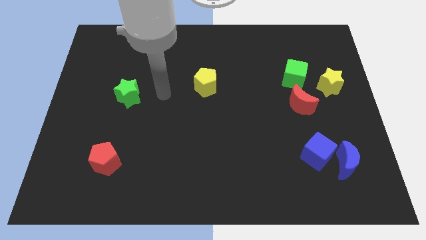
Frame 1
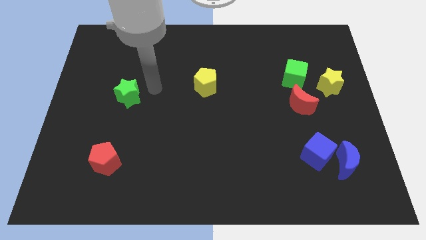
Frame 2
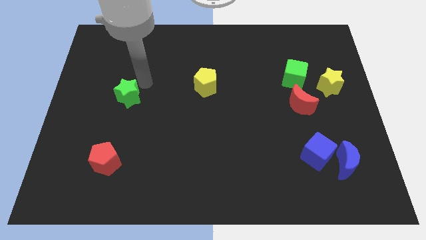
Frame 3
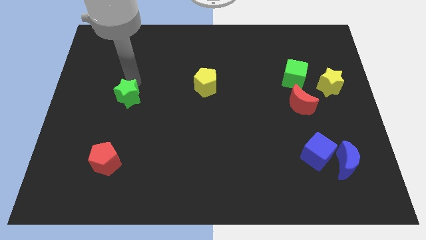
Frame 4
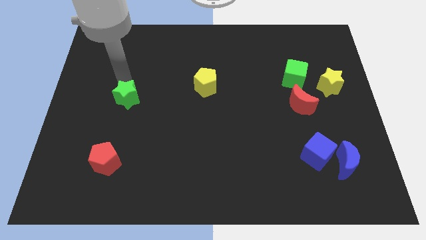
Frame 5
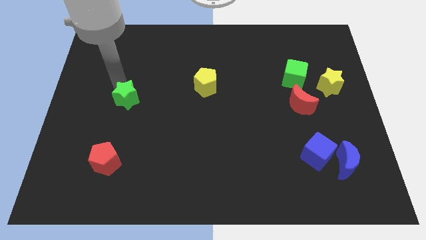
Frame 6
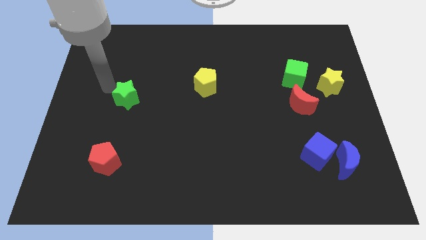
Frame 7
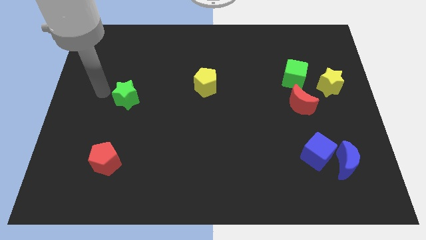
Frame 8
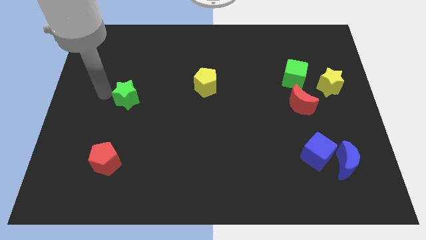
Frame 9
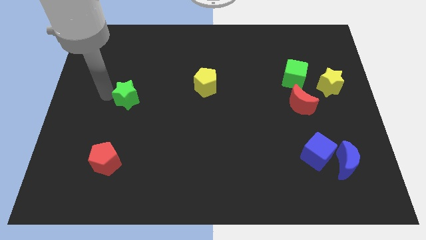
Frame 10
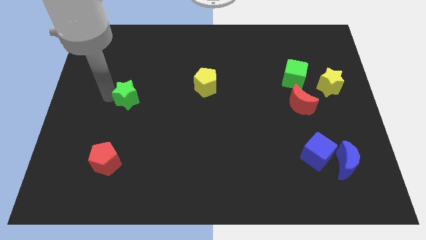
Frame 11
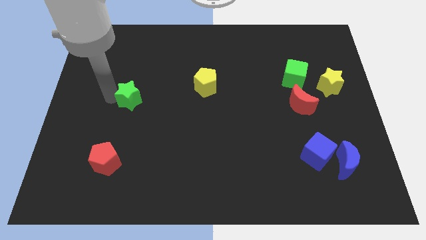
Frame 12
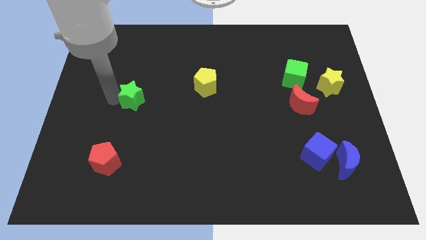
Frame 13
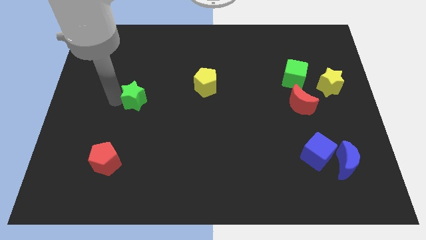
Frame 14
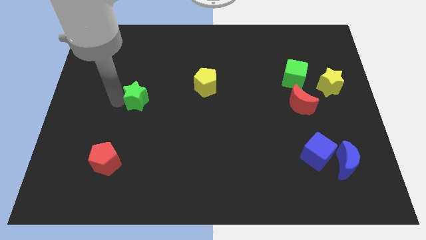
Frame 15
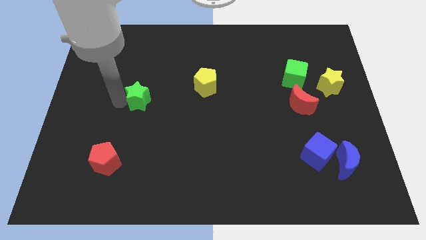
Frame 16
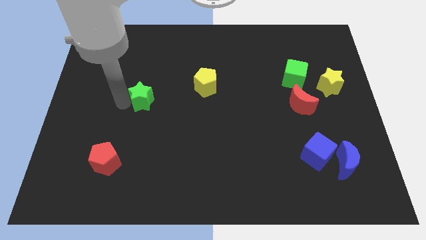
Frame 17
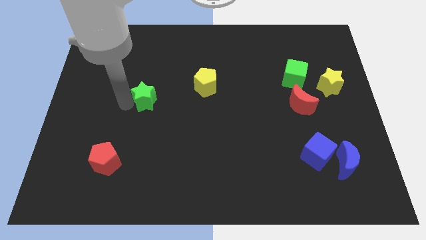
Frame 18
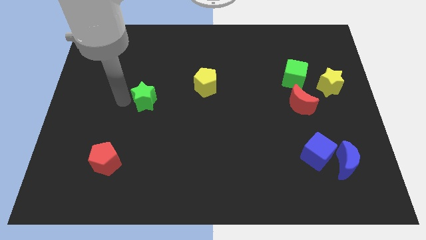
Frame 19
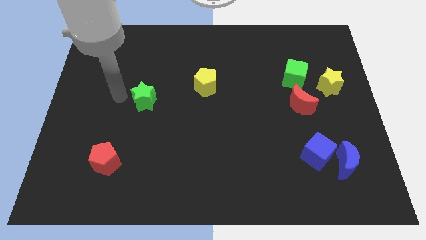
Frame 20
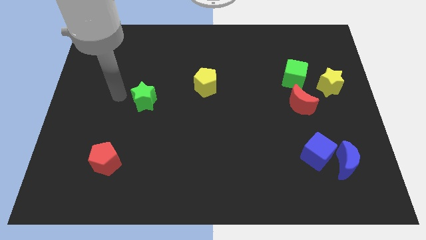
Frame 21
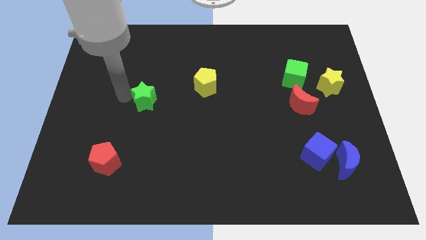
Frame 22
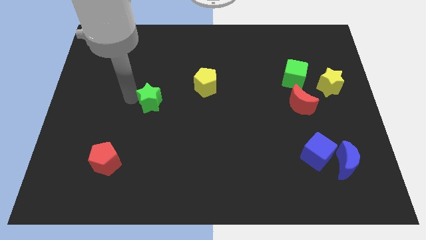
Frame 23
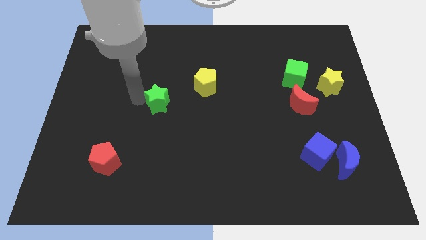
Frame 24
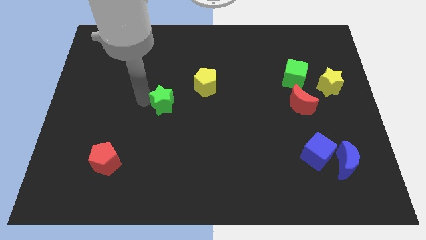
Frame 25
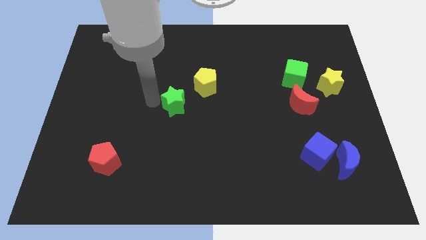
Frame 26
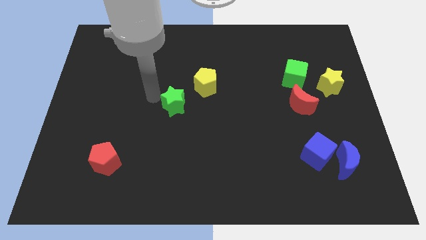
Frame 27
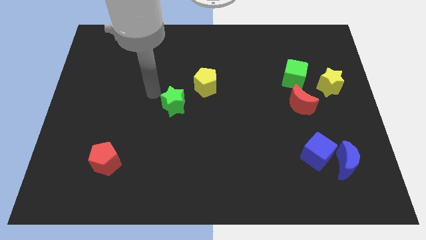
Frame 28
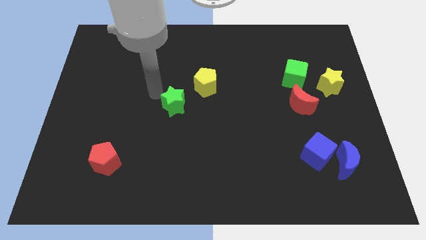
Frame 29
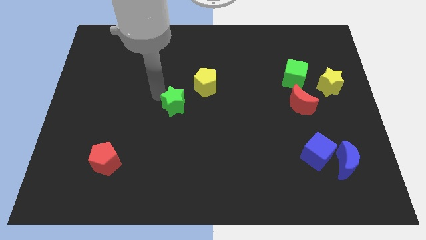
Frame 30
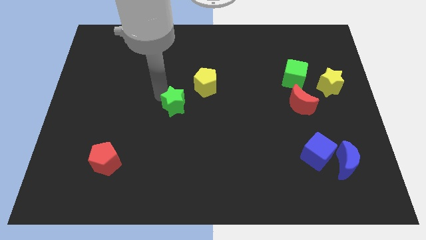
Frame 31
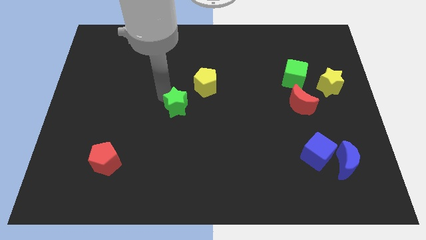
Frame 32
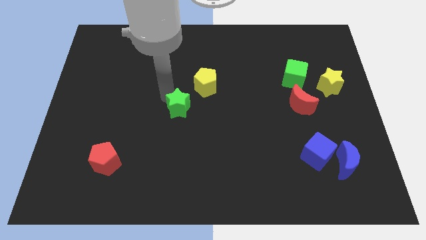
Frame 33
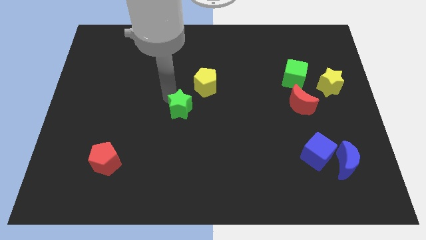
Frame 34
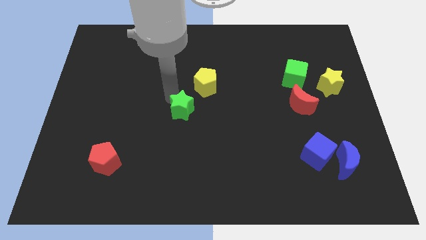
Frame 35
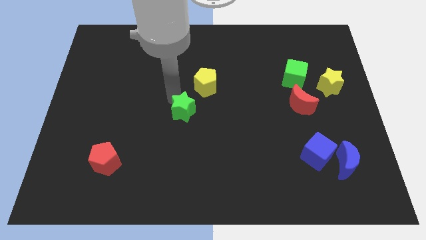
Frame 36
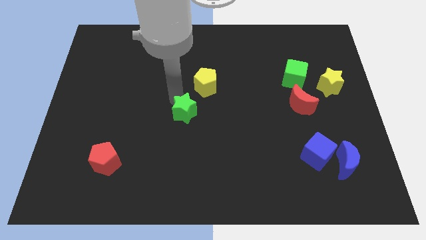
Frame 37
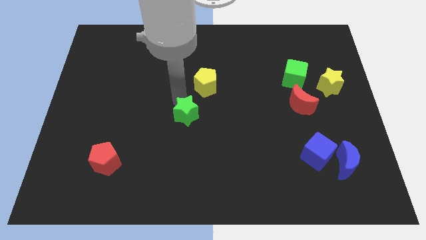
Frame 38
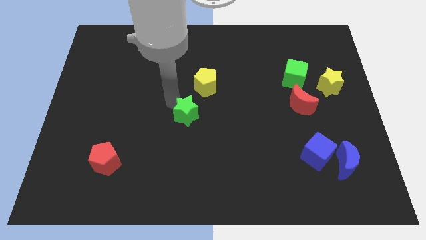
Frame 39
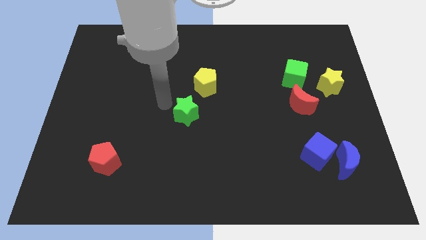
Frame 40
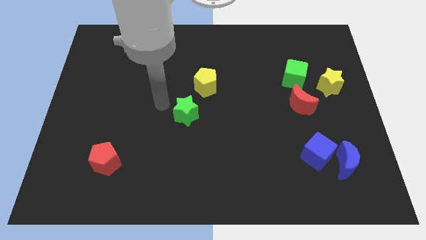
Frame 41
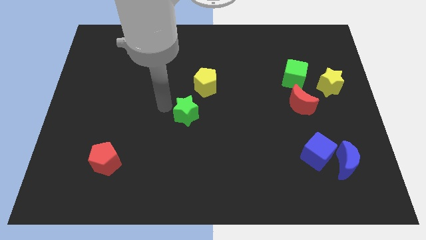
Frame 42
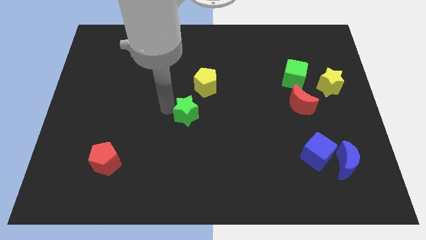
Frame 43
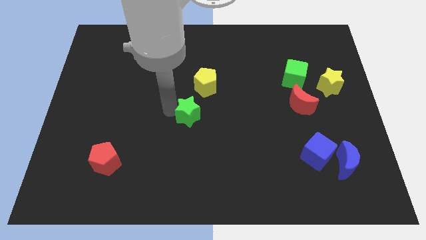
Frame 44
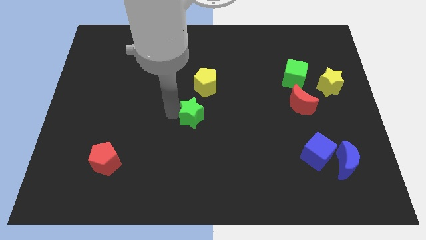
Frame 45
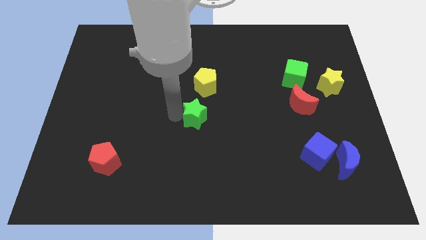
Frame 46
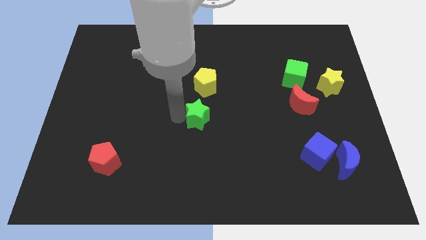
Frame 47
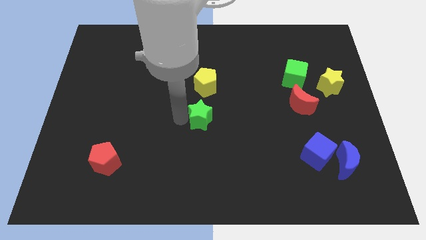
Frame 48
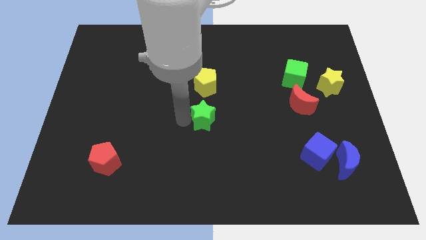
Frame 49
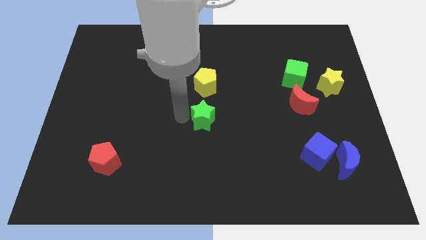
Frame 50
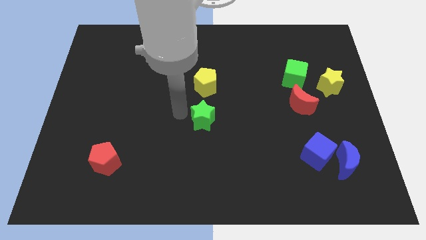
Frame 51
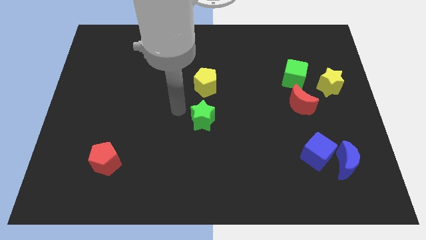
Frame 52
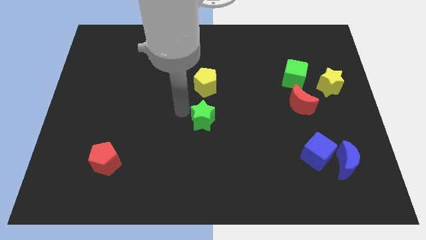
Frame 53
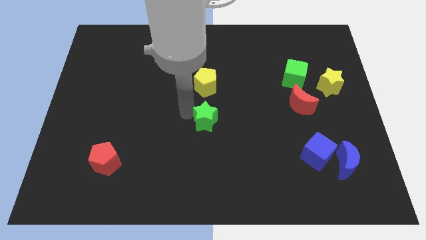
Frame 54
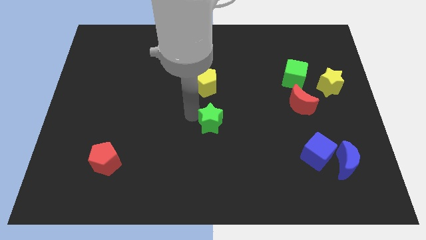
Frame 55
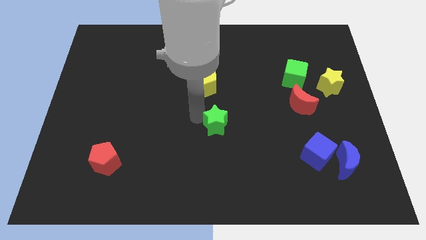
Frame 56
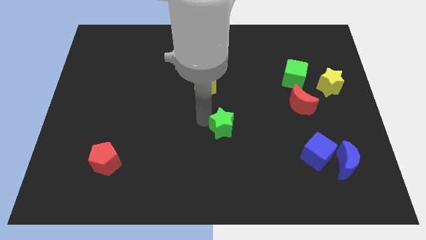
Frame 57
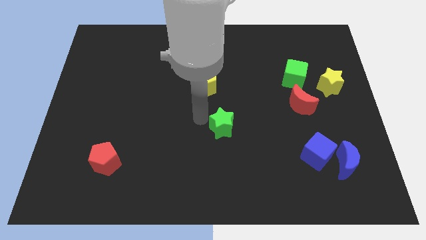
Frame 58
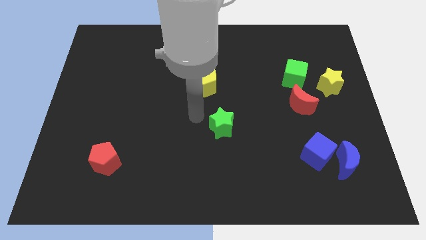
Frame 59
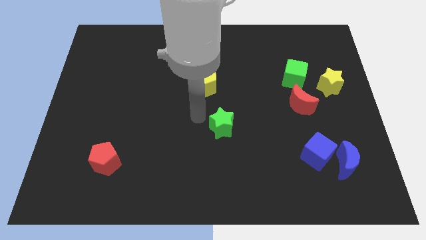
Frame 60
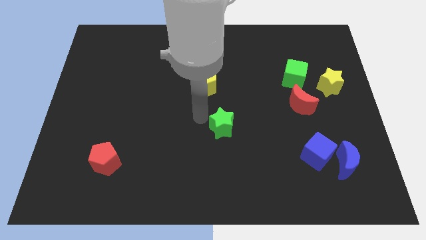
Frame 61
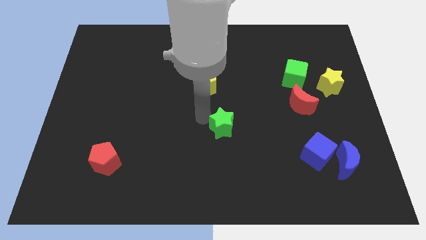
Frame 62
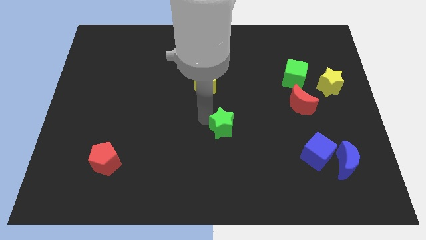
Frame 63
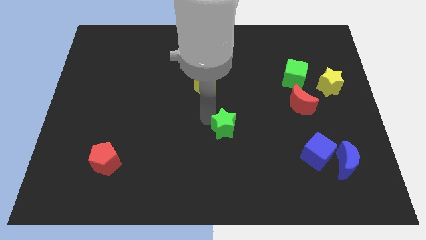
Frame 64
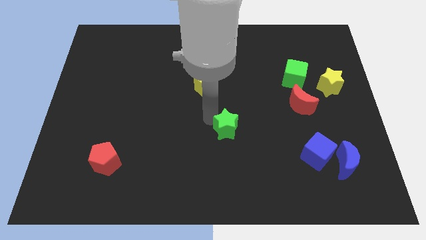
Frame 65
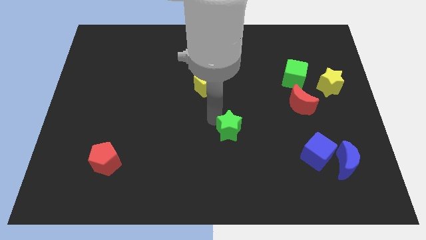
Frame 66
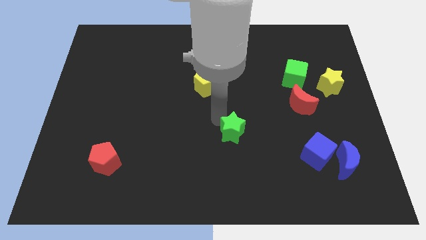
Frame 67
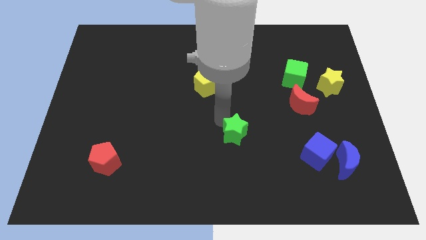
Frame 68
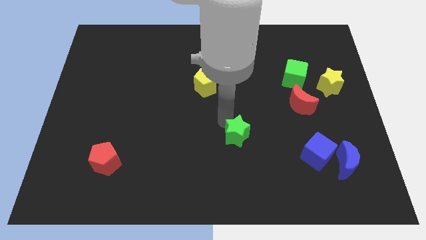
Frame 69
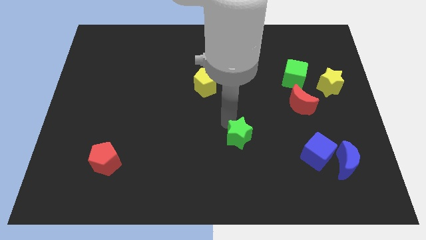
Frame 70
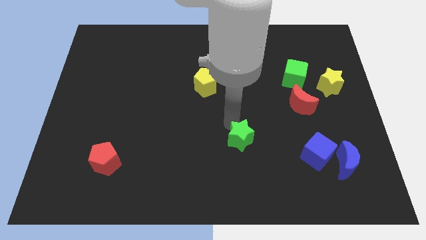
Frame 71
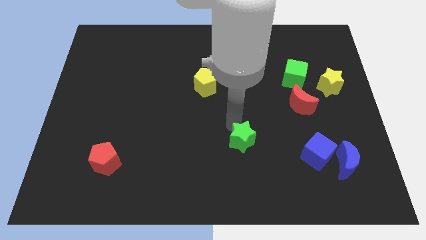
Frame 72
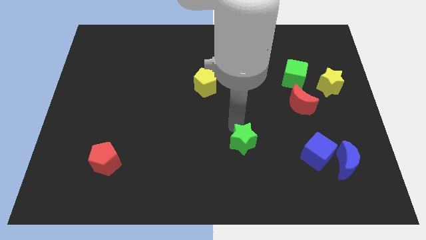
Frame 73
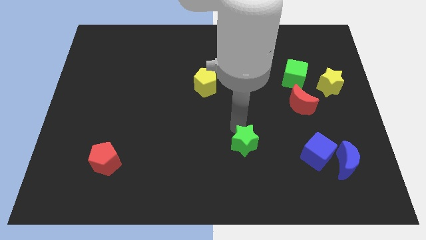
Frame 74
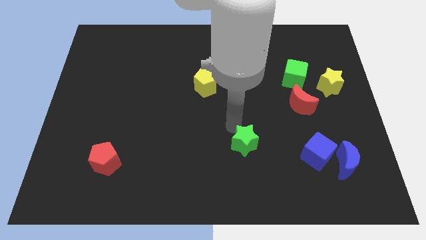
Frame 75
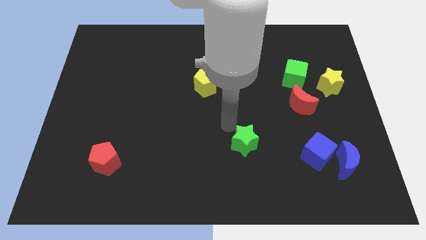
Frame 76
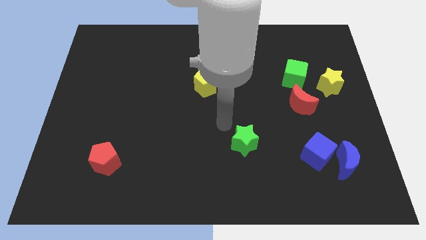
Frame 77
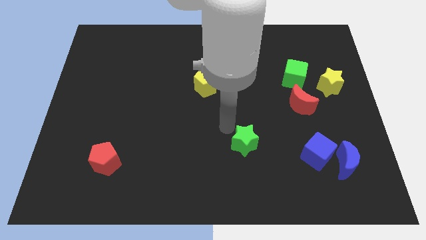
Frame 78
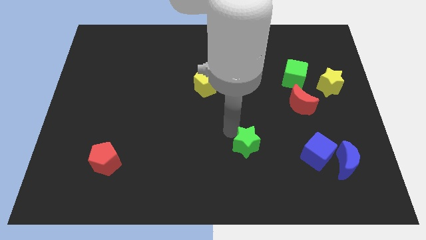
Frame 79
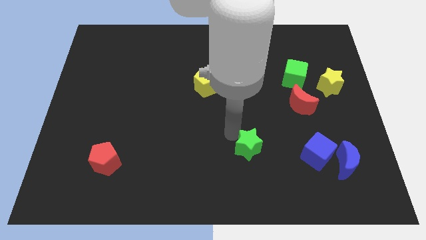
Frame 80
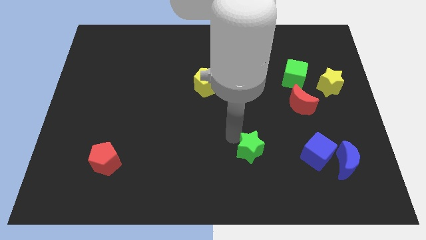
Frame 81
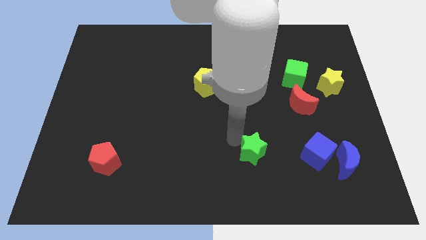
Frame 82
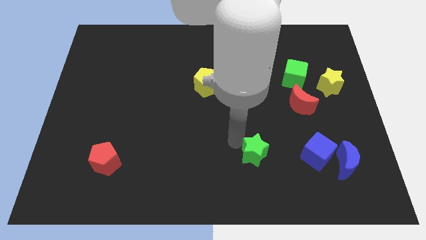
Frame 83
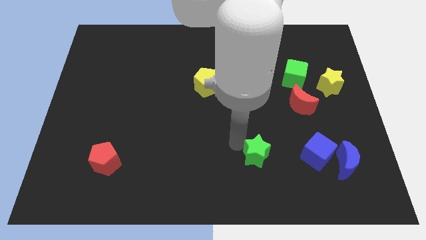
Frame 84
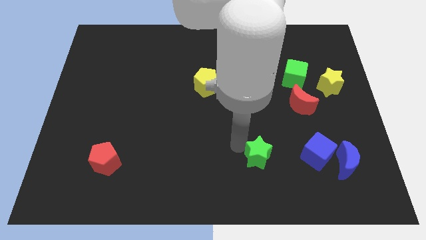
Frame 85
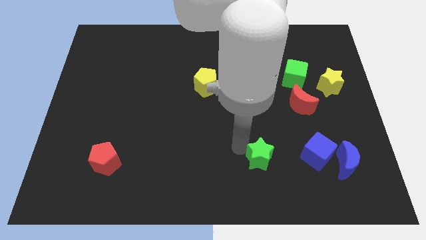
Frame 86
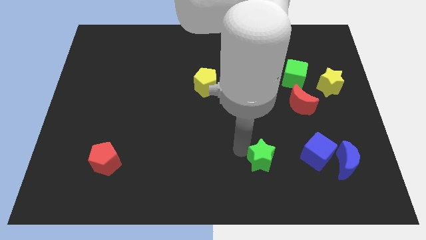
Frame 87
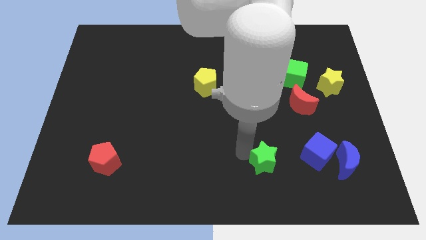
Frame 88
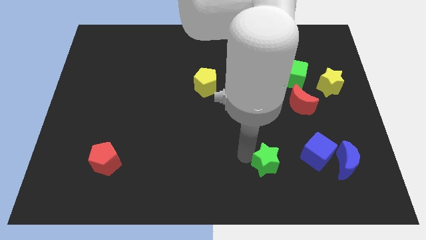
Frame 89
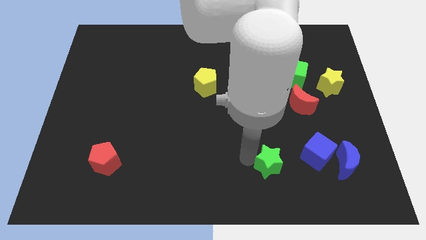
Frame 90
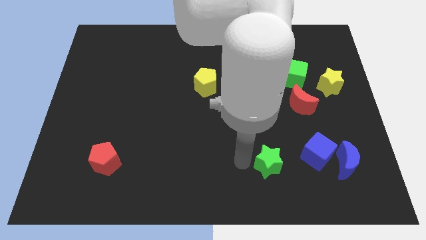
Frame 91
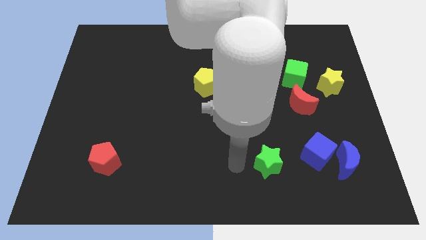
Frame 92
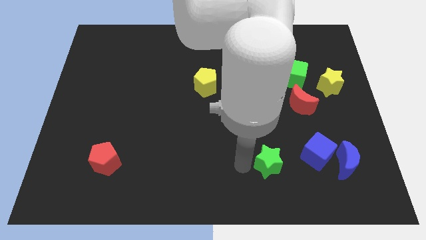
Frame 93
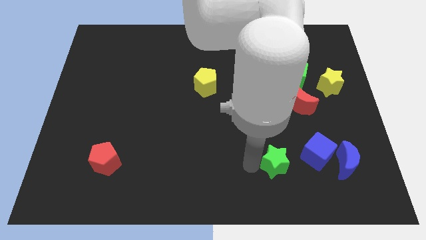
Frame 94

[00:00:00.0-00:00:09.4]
push the green star to the left side of the blue moon
